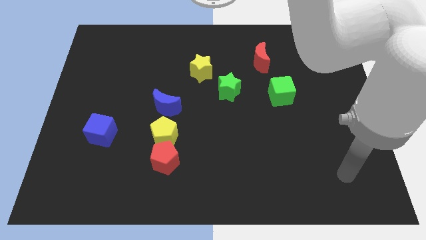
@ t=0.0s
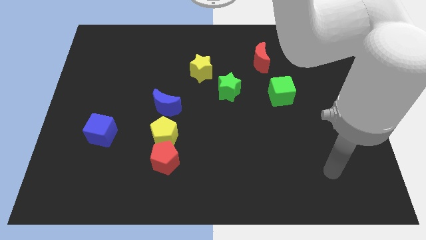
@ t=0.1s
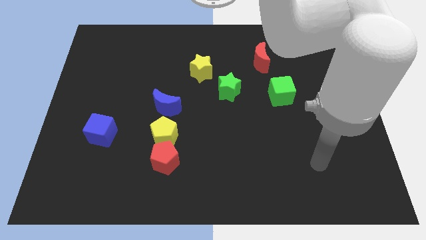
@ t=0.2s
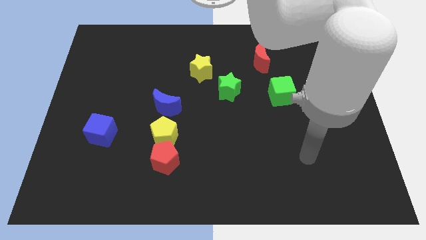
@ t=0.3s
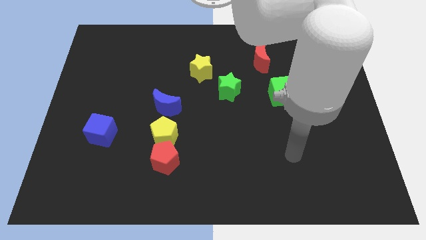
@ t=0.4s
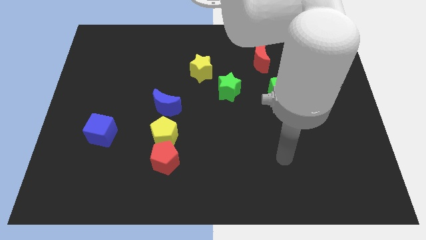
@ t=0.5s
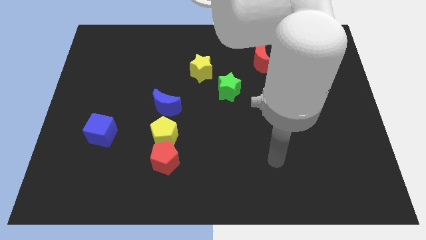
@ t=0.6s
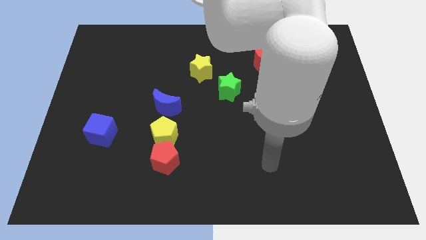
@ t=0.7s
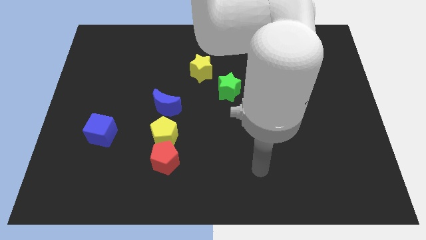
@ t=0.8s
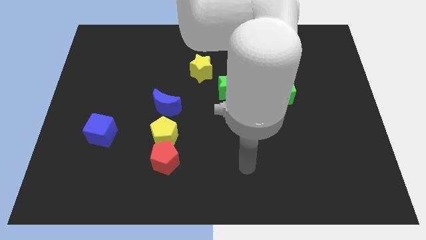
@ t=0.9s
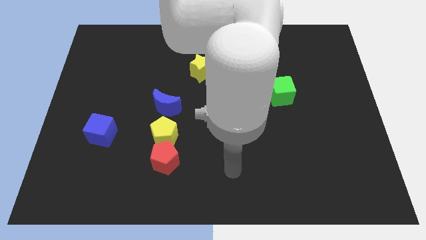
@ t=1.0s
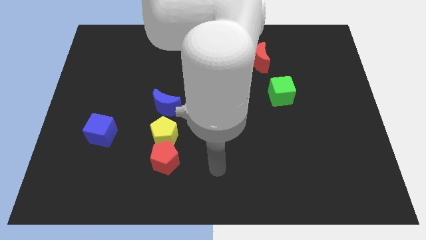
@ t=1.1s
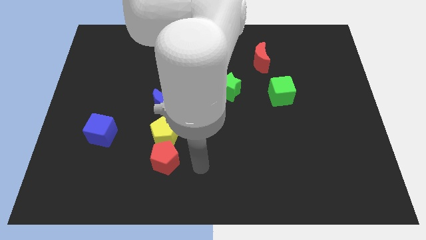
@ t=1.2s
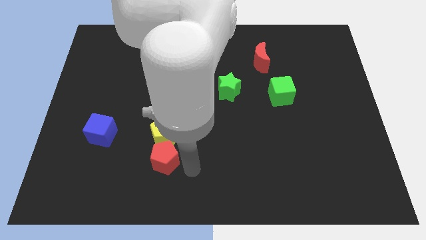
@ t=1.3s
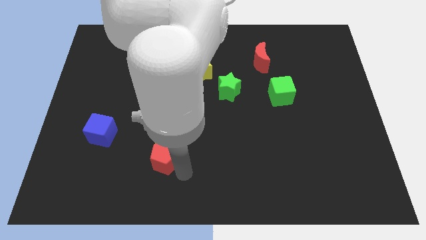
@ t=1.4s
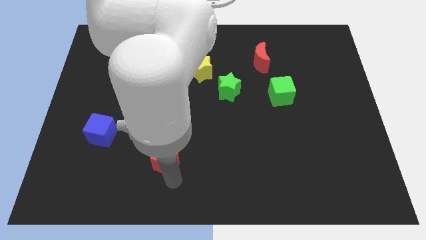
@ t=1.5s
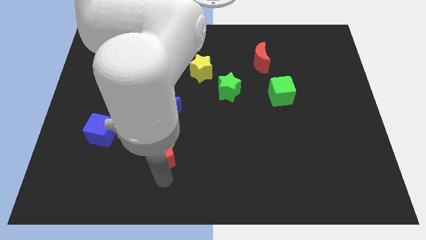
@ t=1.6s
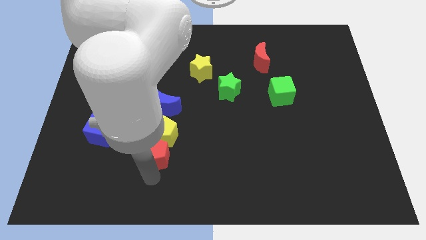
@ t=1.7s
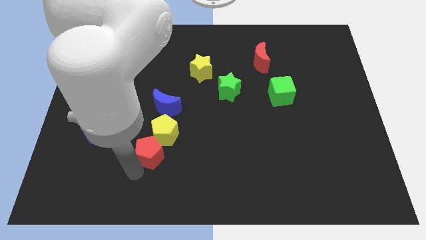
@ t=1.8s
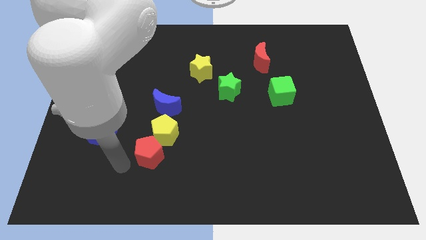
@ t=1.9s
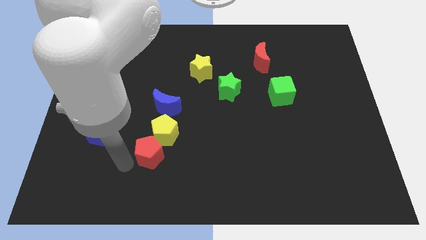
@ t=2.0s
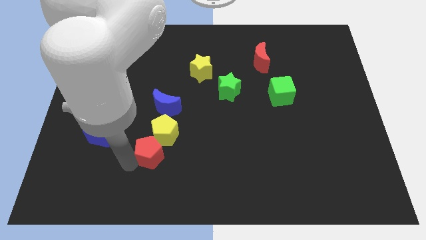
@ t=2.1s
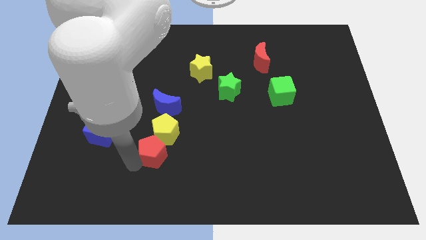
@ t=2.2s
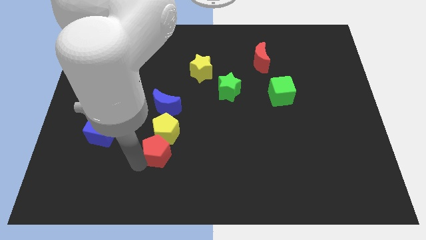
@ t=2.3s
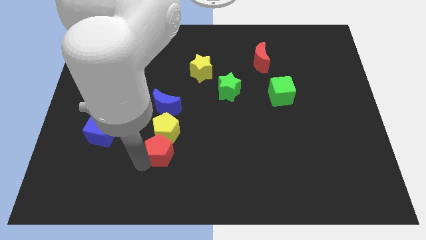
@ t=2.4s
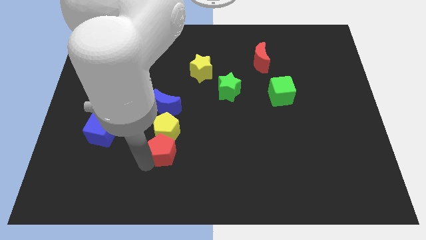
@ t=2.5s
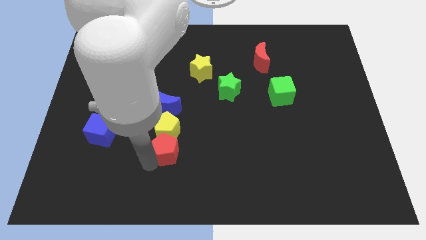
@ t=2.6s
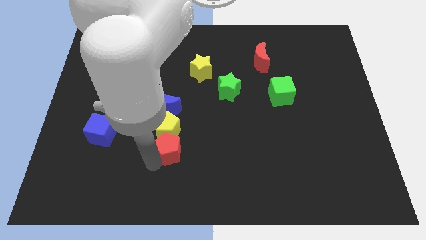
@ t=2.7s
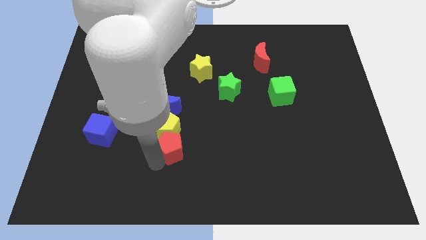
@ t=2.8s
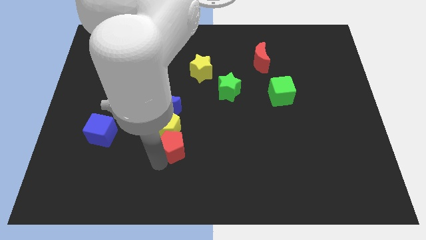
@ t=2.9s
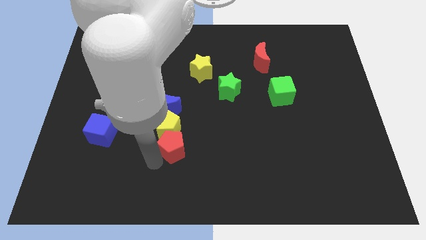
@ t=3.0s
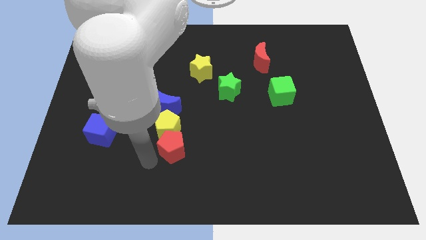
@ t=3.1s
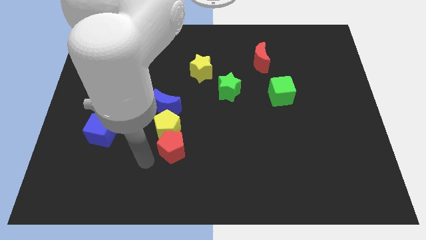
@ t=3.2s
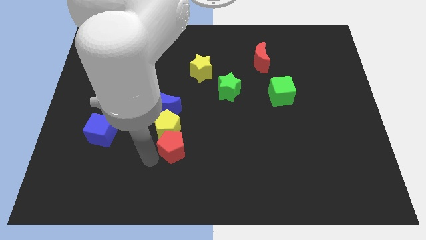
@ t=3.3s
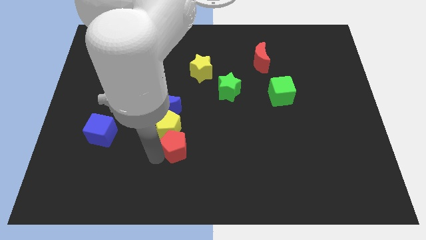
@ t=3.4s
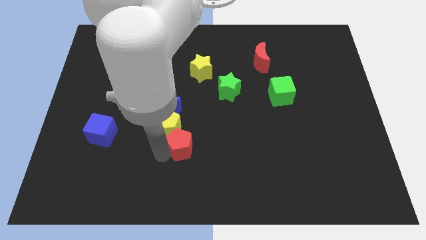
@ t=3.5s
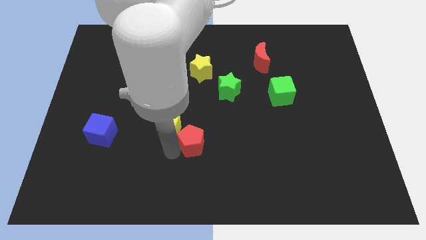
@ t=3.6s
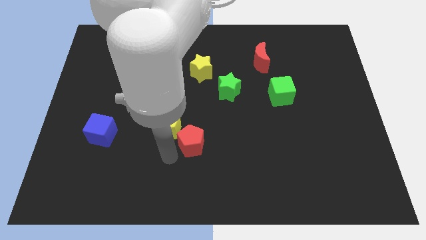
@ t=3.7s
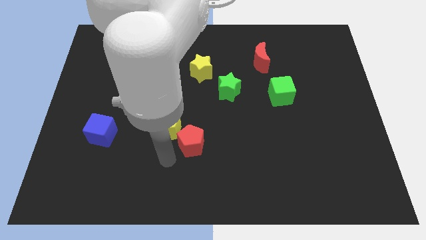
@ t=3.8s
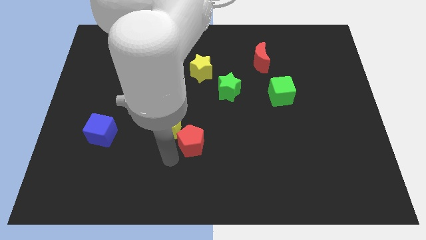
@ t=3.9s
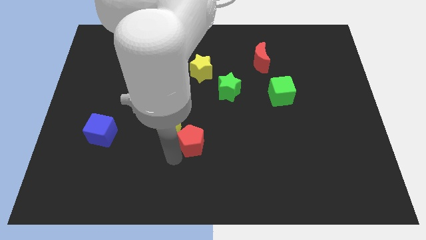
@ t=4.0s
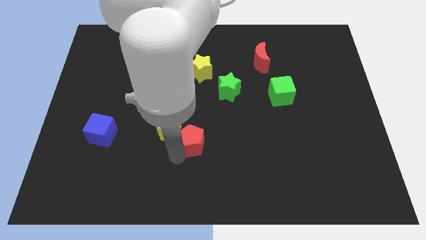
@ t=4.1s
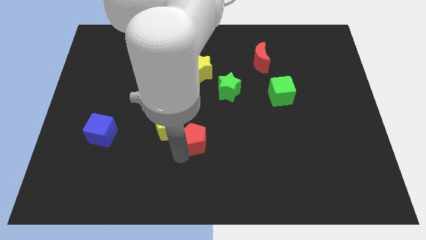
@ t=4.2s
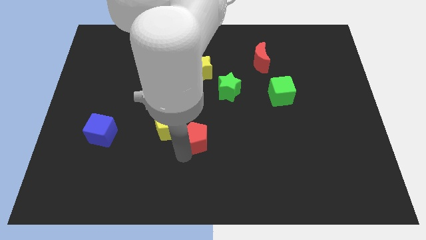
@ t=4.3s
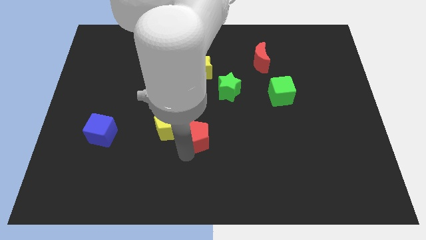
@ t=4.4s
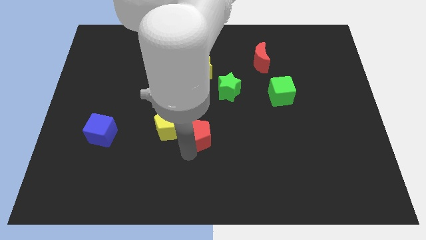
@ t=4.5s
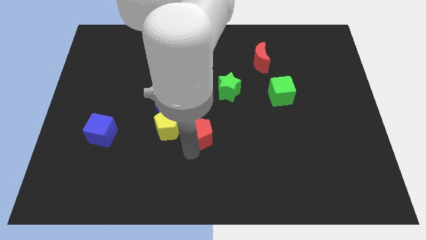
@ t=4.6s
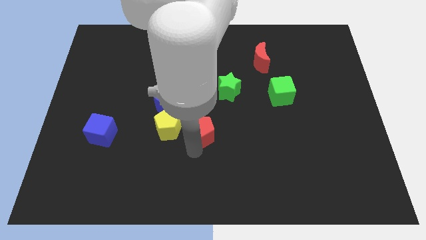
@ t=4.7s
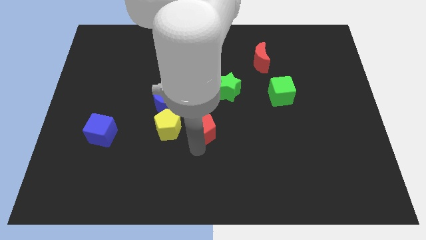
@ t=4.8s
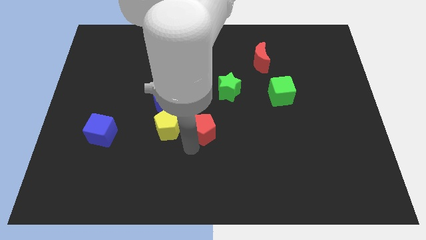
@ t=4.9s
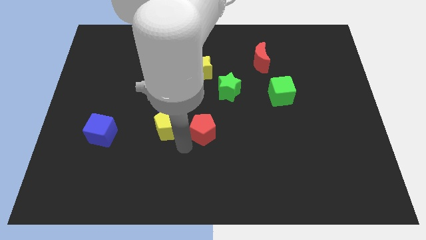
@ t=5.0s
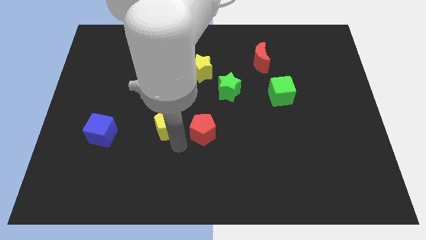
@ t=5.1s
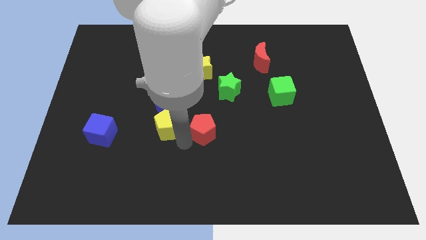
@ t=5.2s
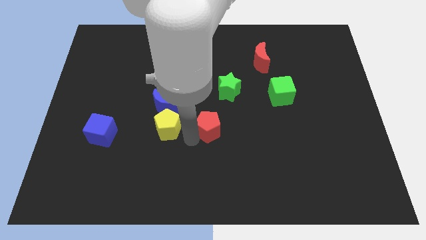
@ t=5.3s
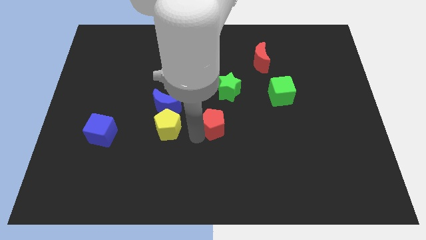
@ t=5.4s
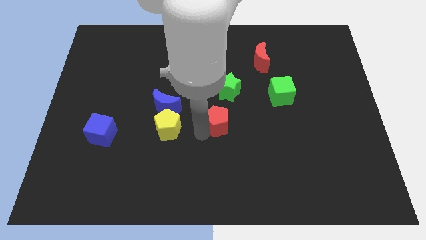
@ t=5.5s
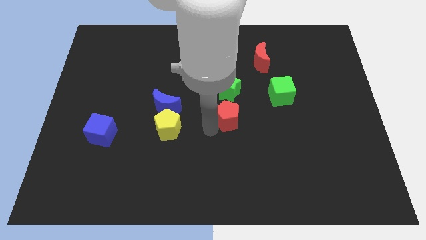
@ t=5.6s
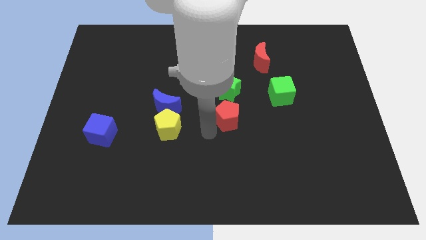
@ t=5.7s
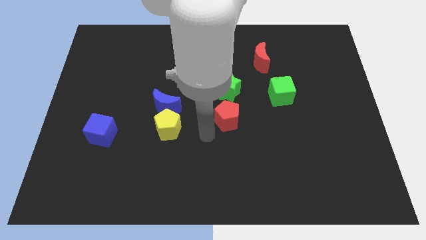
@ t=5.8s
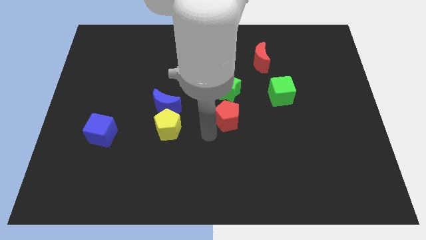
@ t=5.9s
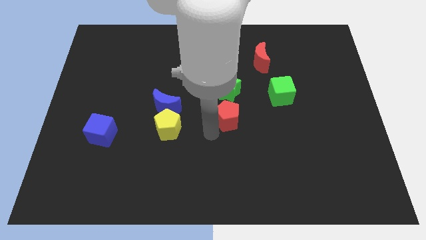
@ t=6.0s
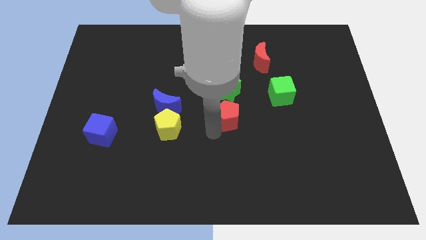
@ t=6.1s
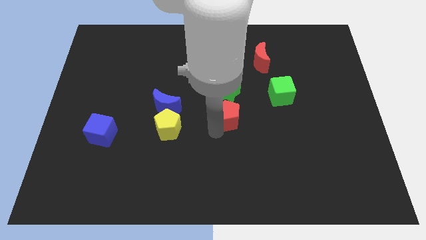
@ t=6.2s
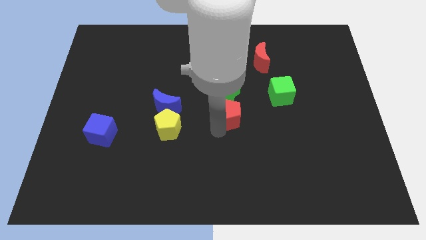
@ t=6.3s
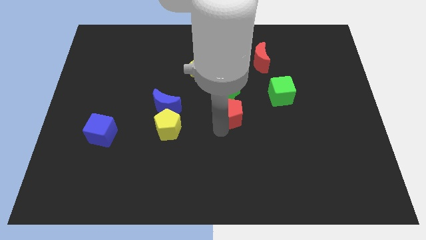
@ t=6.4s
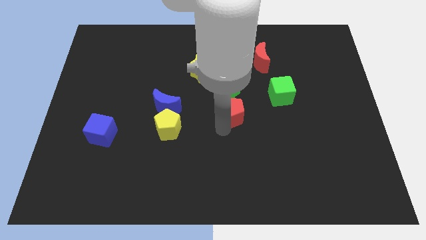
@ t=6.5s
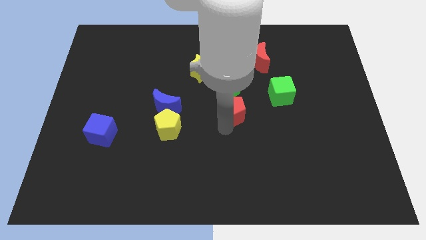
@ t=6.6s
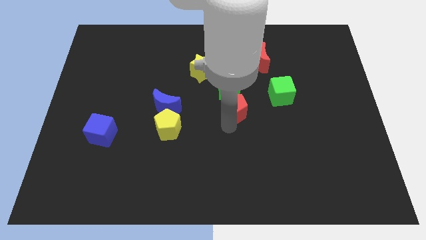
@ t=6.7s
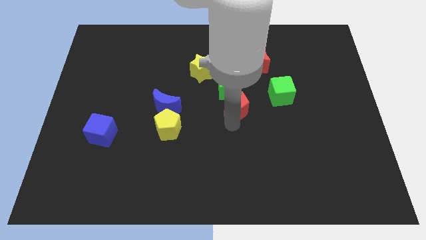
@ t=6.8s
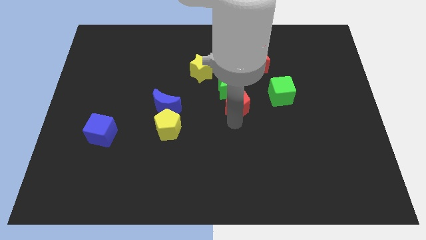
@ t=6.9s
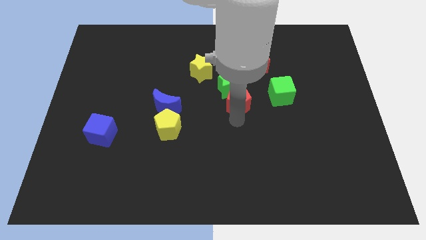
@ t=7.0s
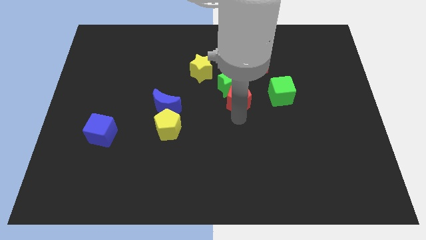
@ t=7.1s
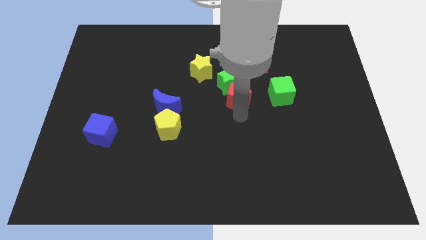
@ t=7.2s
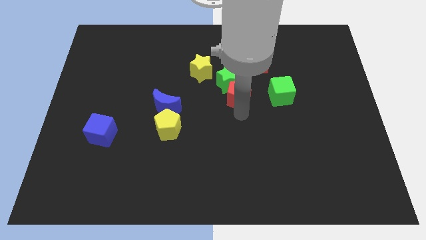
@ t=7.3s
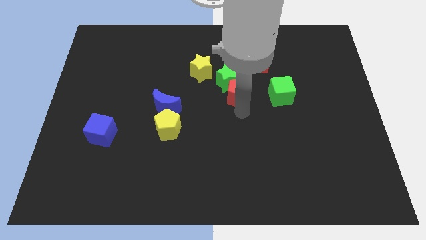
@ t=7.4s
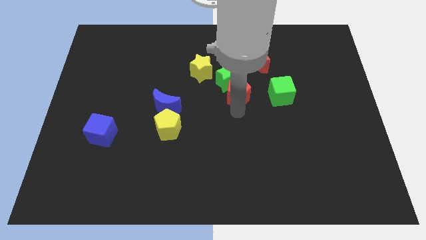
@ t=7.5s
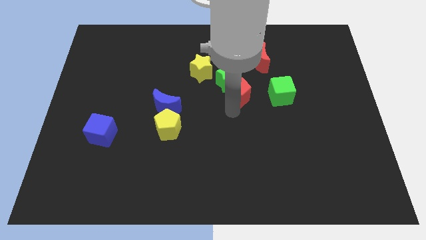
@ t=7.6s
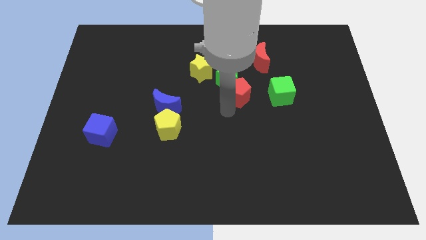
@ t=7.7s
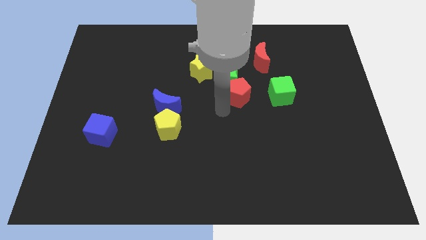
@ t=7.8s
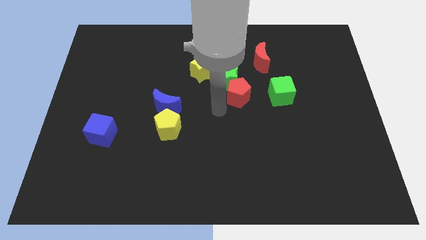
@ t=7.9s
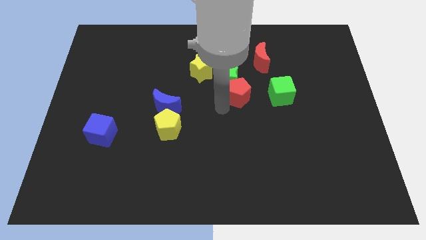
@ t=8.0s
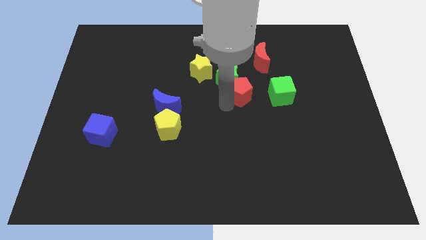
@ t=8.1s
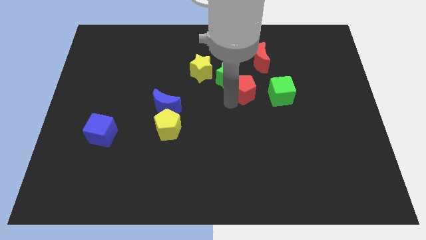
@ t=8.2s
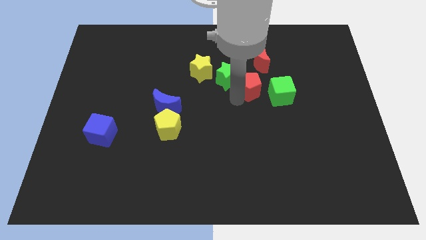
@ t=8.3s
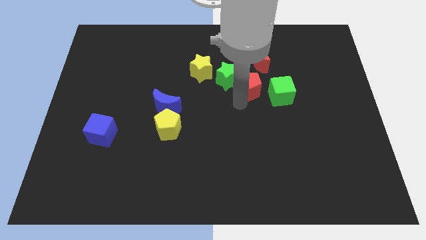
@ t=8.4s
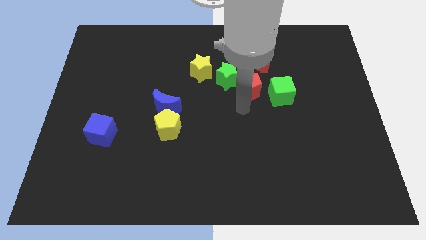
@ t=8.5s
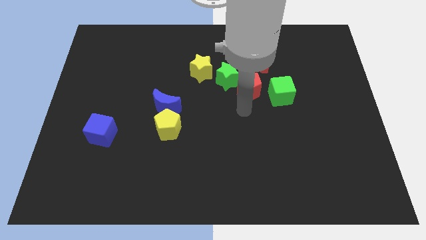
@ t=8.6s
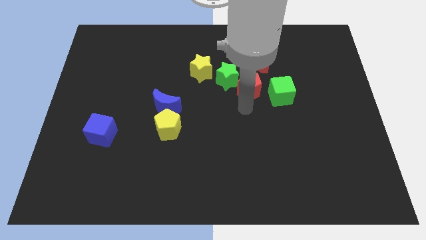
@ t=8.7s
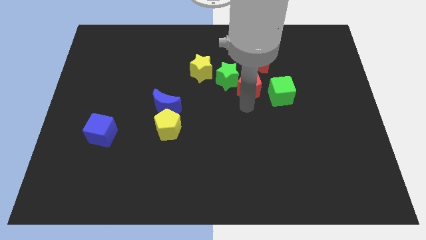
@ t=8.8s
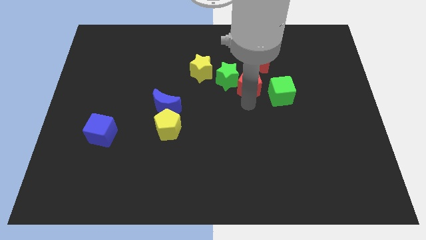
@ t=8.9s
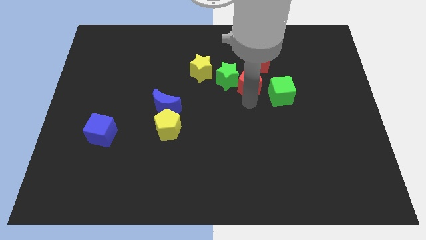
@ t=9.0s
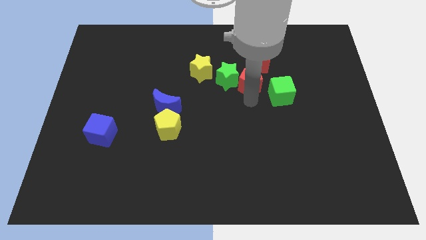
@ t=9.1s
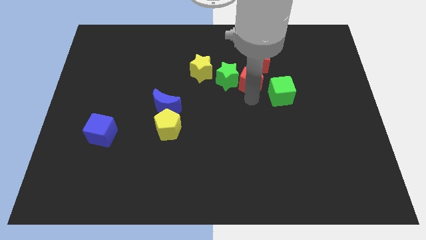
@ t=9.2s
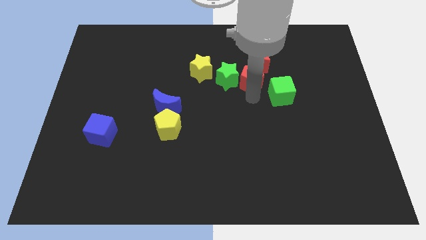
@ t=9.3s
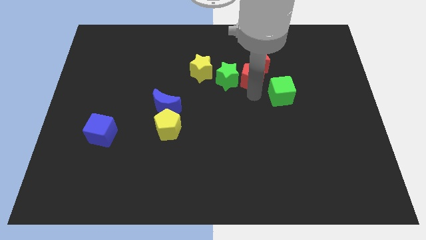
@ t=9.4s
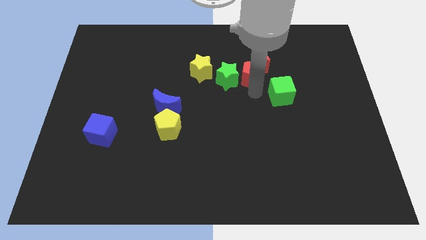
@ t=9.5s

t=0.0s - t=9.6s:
move the red pentagon towards the red moon
